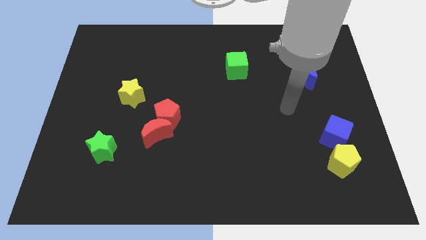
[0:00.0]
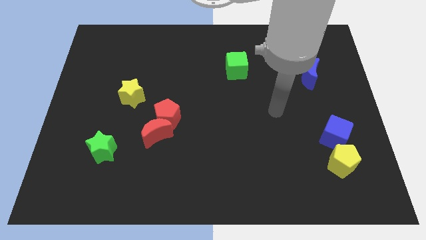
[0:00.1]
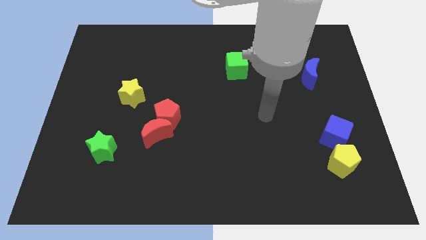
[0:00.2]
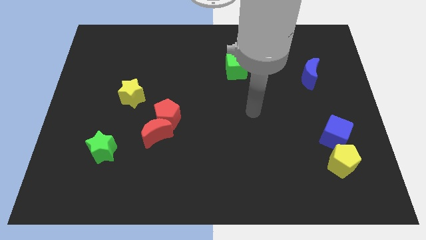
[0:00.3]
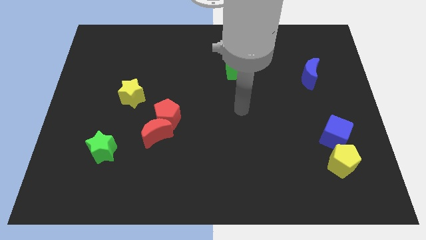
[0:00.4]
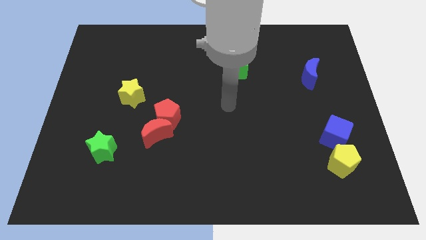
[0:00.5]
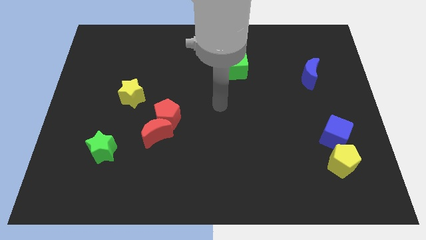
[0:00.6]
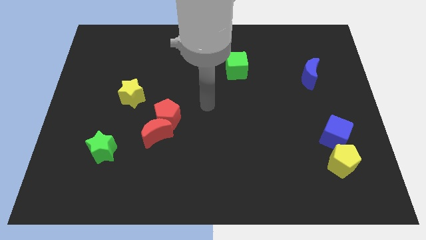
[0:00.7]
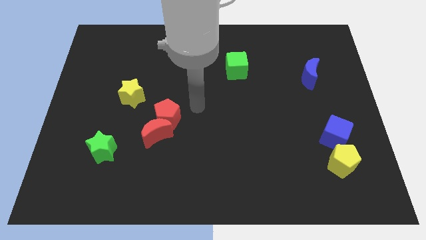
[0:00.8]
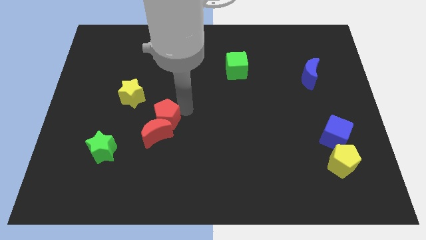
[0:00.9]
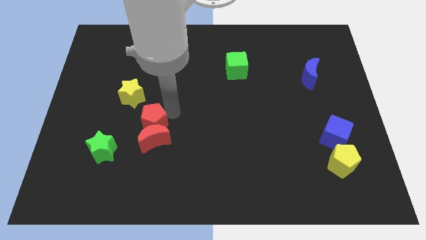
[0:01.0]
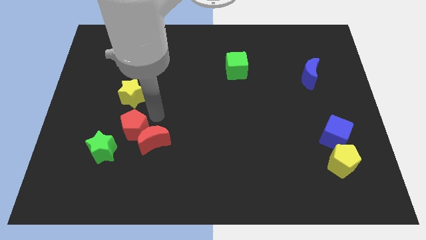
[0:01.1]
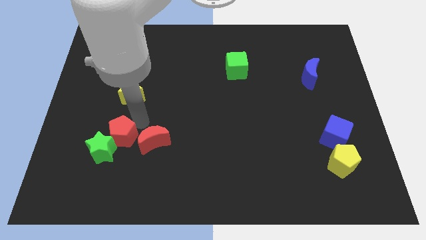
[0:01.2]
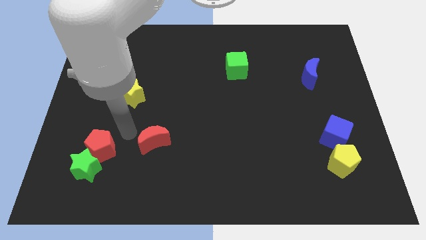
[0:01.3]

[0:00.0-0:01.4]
move the red moon away from the red pentagon

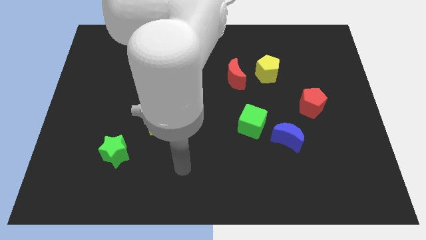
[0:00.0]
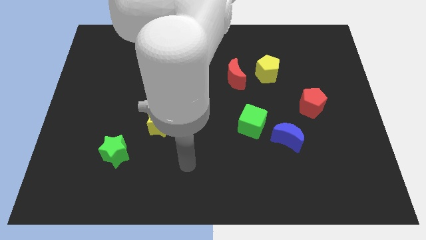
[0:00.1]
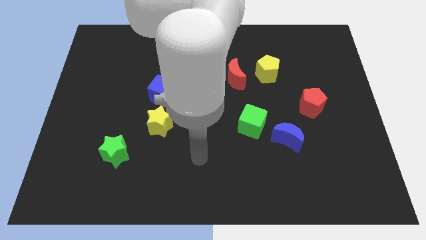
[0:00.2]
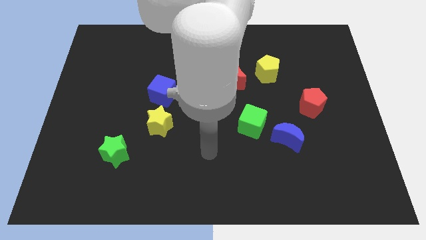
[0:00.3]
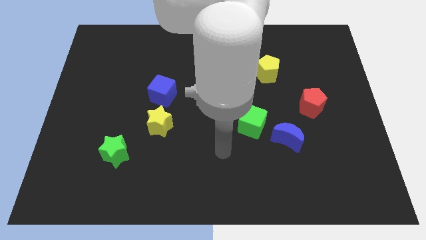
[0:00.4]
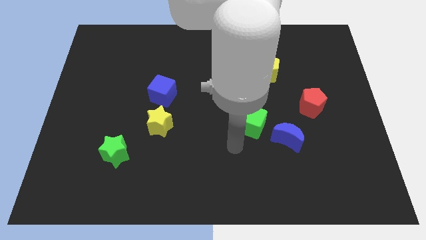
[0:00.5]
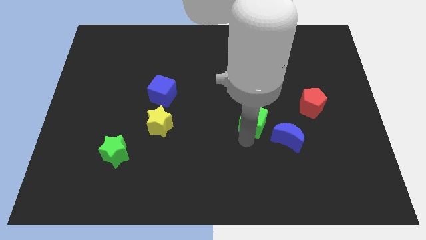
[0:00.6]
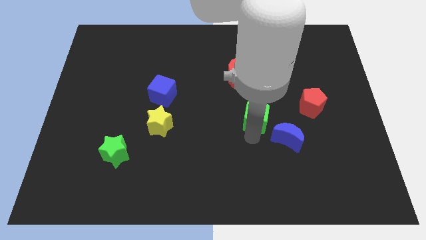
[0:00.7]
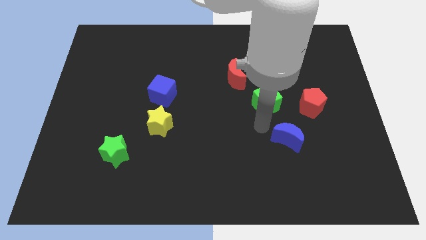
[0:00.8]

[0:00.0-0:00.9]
separate the blue moon from the green cube

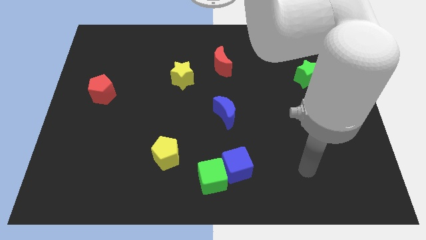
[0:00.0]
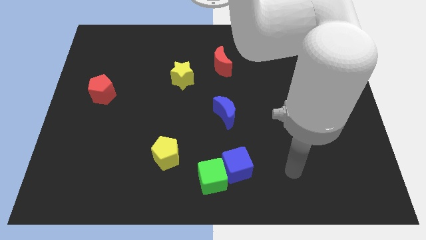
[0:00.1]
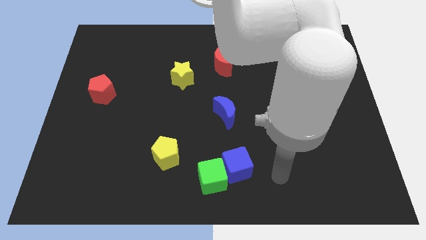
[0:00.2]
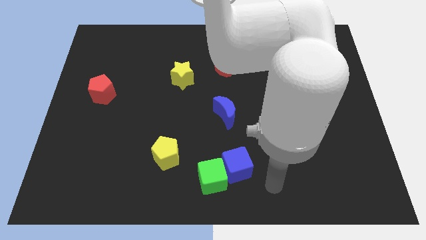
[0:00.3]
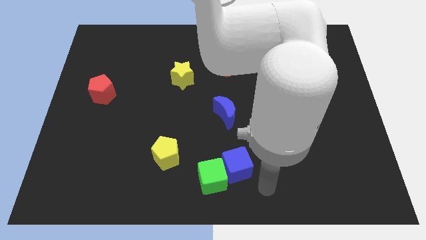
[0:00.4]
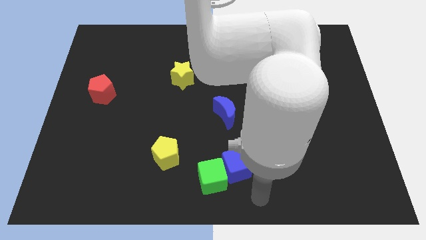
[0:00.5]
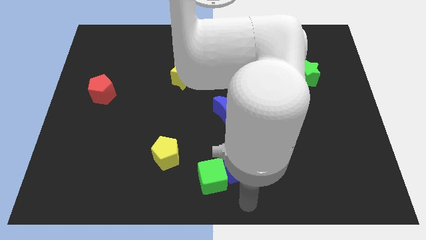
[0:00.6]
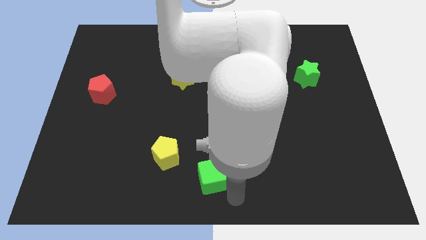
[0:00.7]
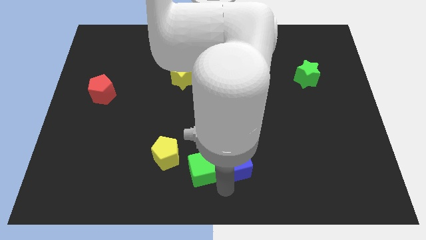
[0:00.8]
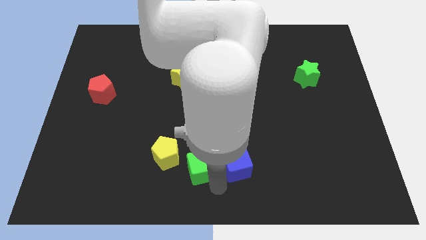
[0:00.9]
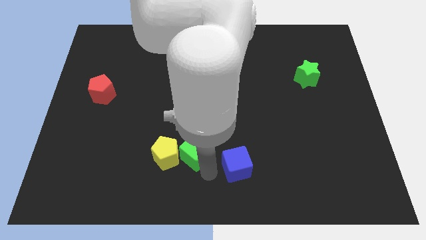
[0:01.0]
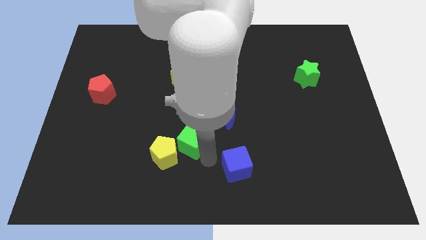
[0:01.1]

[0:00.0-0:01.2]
pull the blue cube apart from the green cube

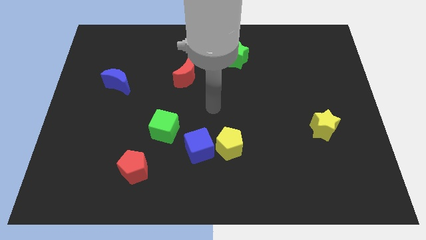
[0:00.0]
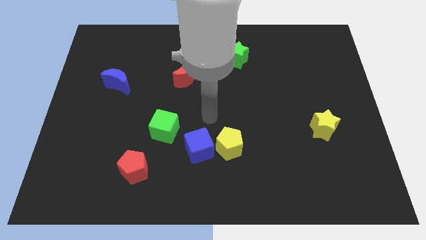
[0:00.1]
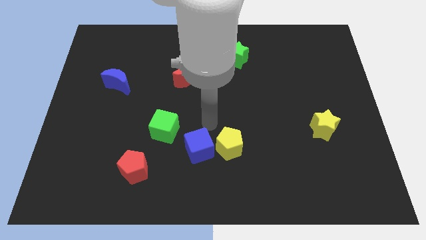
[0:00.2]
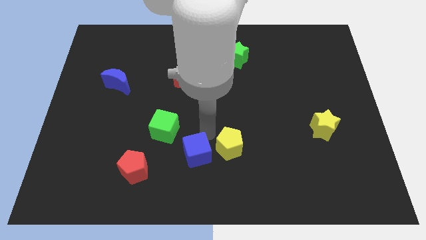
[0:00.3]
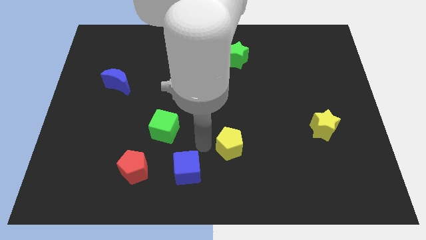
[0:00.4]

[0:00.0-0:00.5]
move the yellow pentagon away from the blue cube

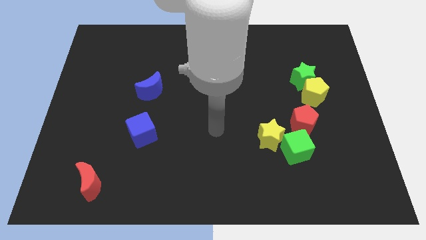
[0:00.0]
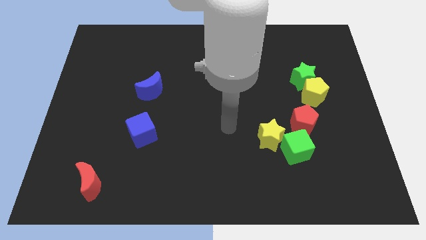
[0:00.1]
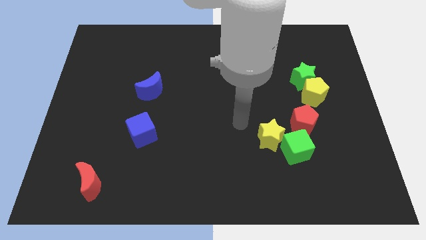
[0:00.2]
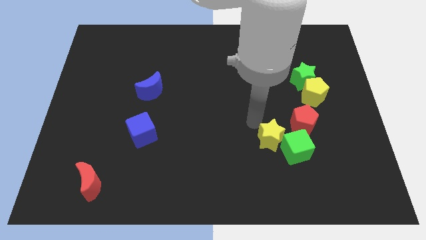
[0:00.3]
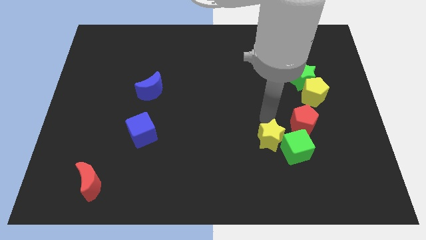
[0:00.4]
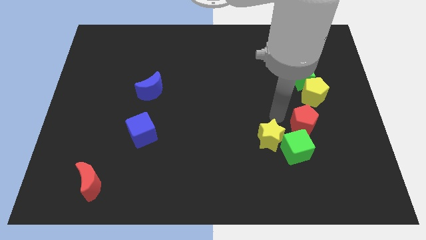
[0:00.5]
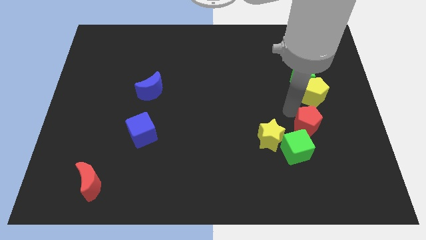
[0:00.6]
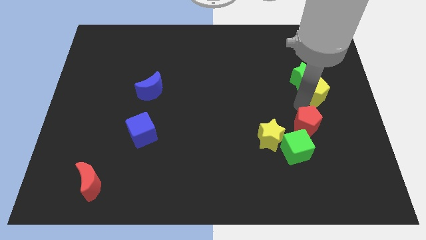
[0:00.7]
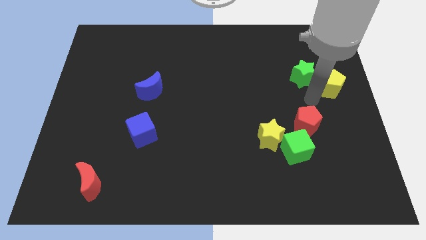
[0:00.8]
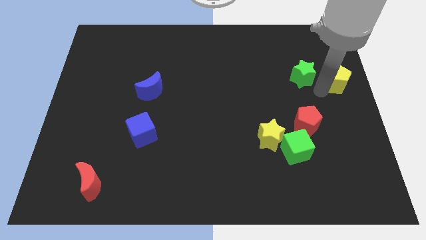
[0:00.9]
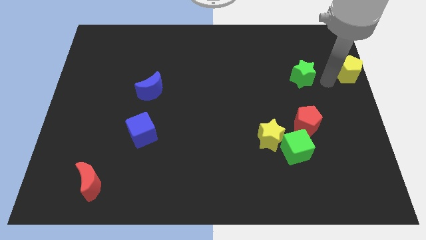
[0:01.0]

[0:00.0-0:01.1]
pull the green star apart from the yellow pentagon

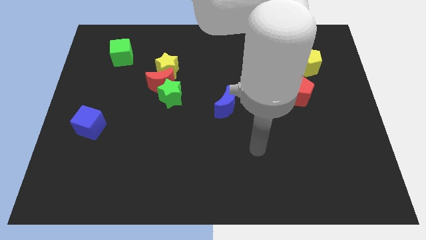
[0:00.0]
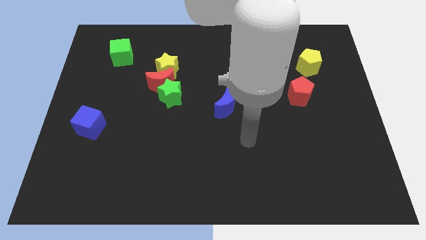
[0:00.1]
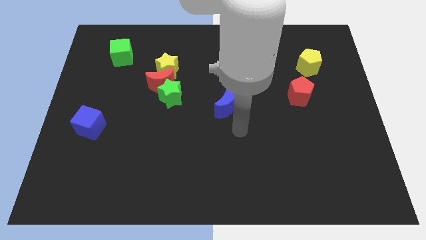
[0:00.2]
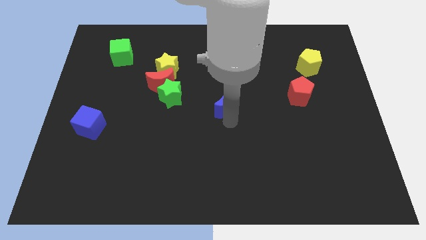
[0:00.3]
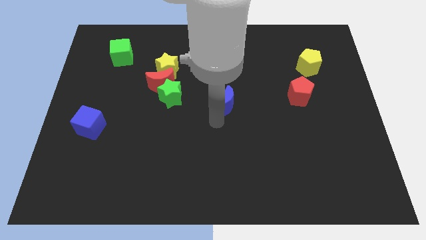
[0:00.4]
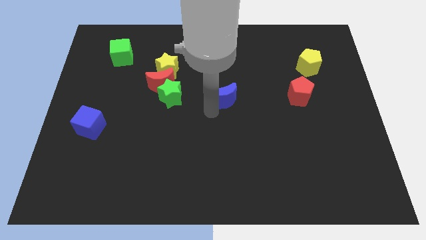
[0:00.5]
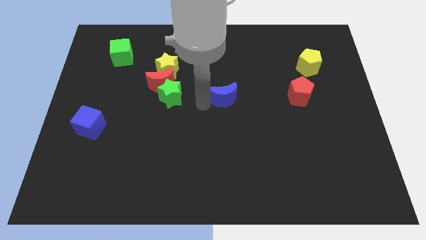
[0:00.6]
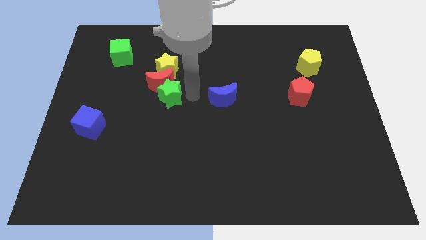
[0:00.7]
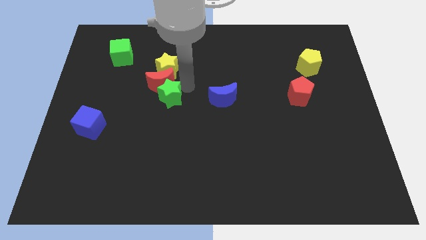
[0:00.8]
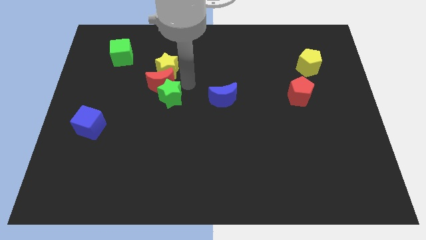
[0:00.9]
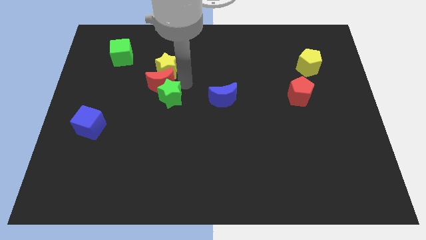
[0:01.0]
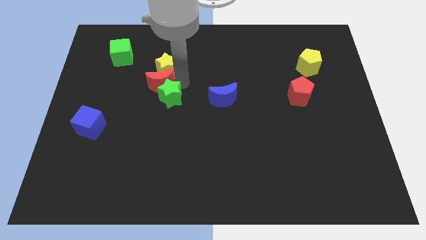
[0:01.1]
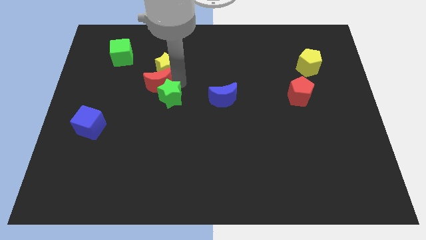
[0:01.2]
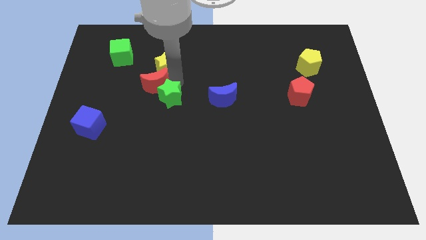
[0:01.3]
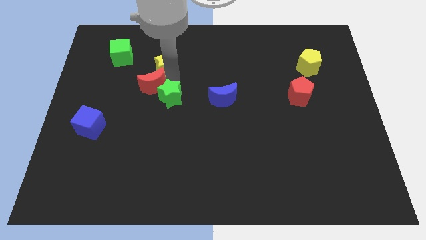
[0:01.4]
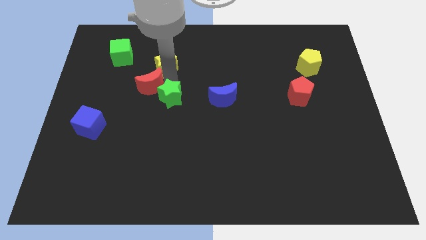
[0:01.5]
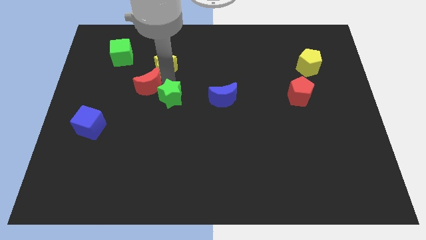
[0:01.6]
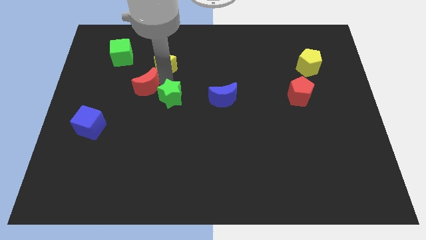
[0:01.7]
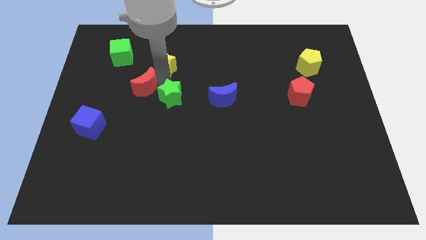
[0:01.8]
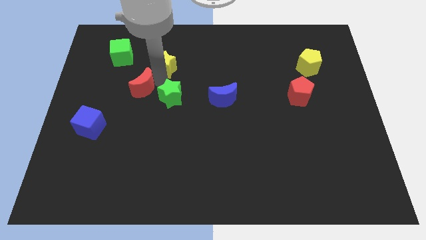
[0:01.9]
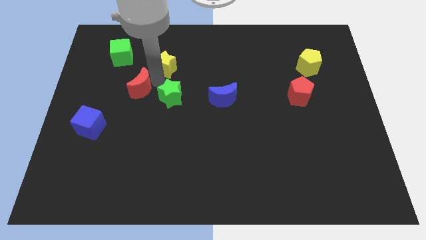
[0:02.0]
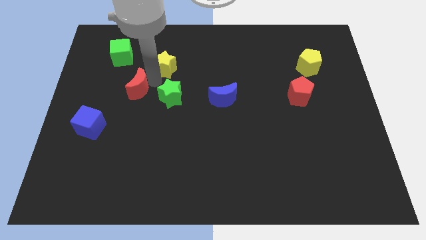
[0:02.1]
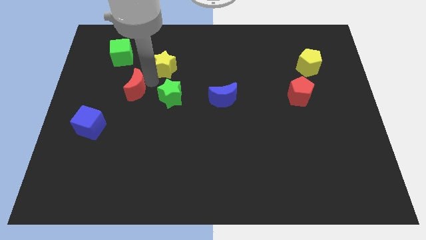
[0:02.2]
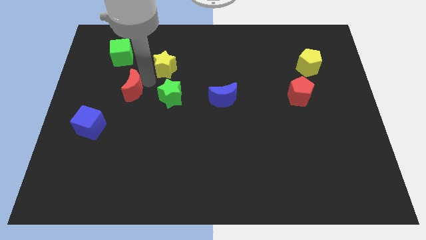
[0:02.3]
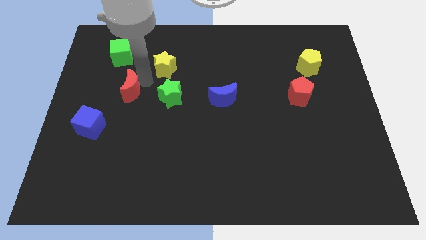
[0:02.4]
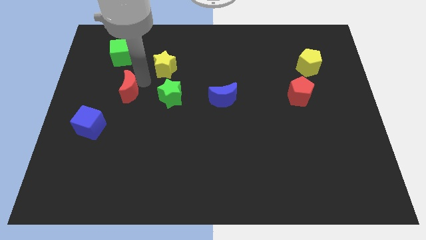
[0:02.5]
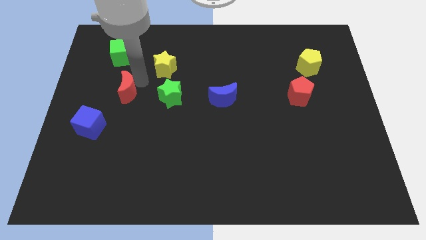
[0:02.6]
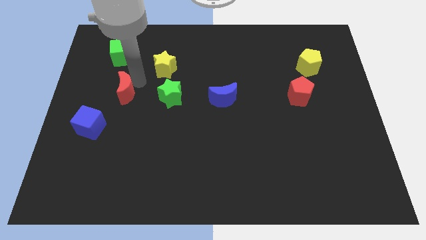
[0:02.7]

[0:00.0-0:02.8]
separate the red moon from the yellow star and green star

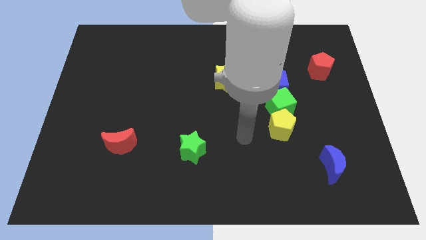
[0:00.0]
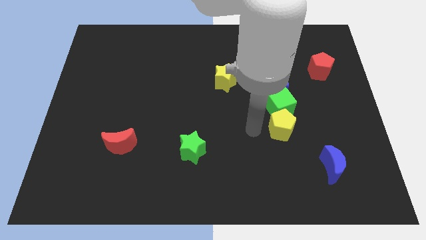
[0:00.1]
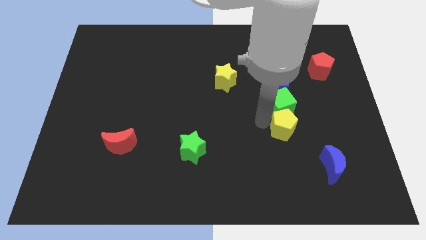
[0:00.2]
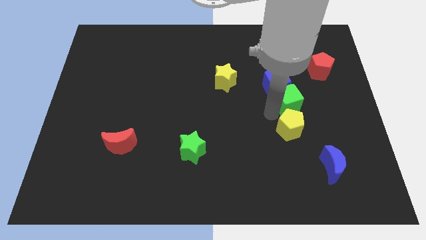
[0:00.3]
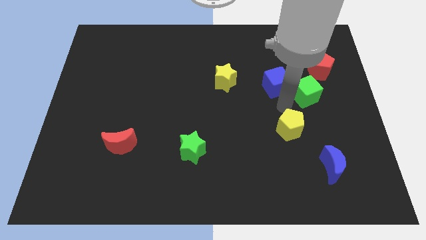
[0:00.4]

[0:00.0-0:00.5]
move the yellow pentagon away from the green cube

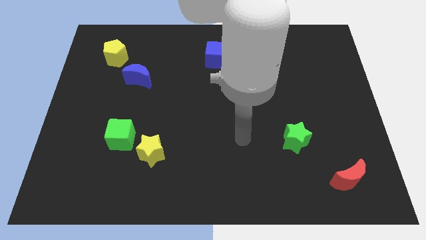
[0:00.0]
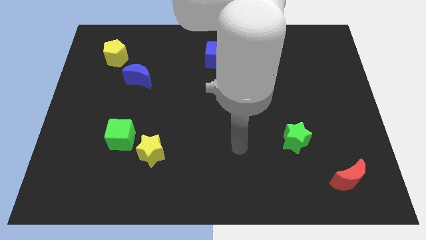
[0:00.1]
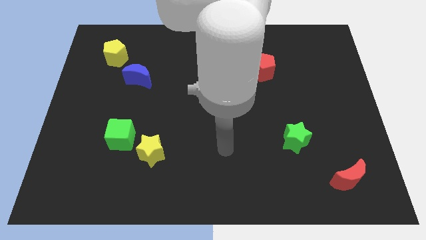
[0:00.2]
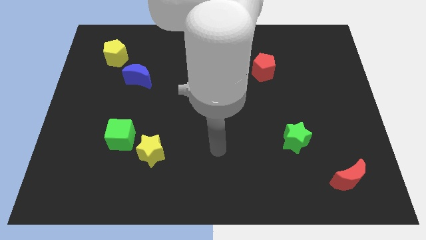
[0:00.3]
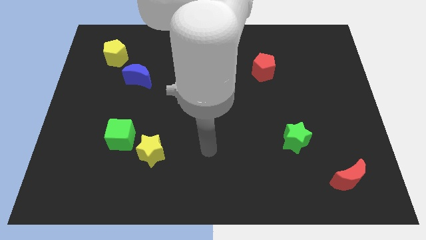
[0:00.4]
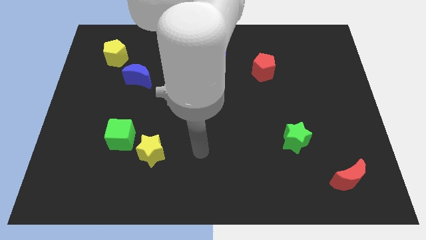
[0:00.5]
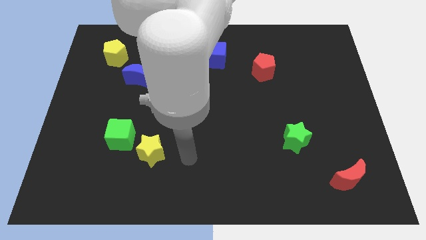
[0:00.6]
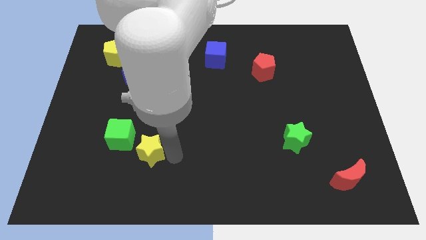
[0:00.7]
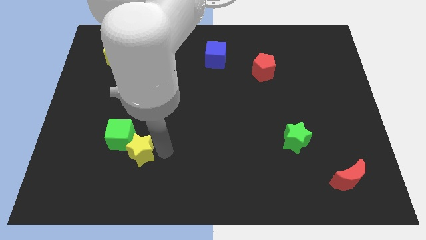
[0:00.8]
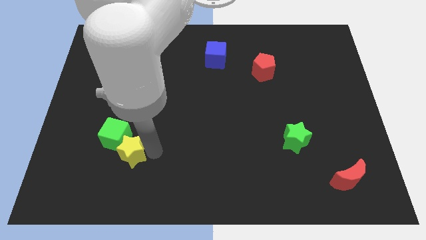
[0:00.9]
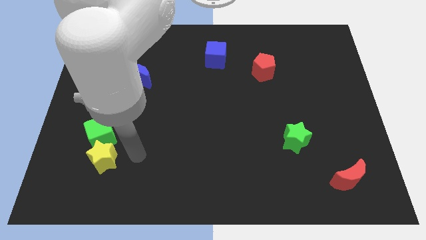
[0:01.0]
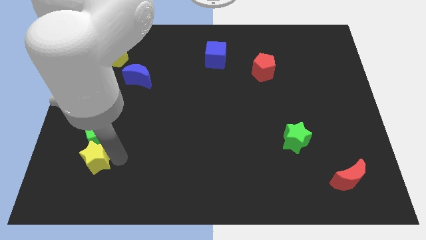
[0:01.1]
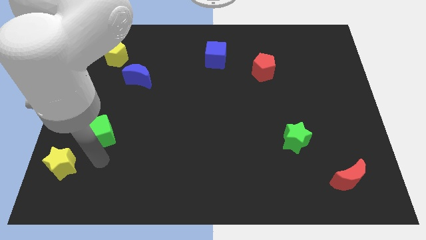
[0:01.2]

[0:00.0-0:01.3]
move the green cube away from the yellow star
